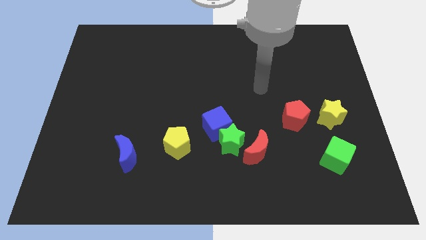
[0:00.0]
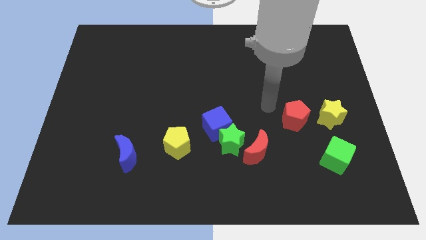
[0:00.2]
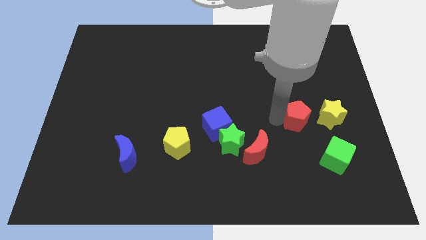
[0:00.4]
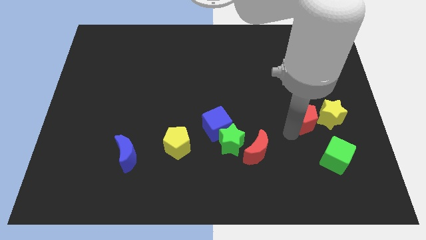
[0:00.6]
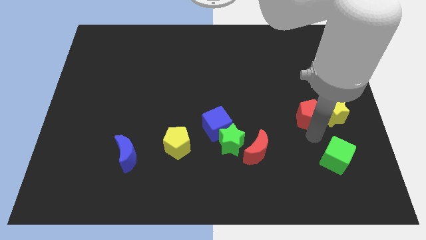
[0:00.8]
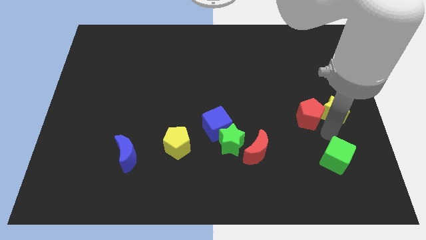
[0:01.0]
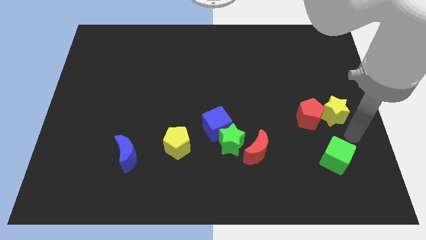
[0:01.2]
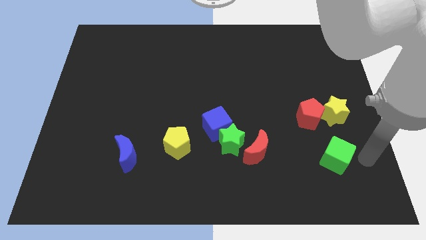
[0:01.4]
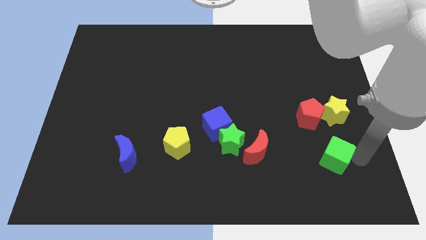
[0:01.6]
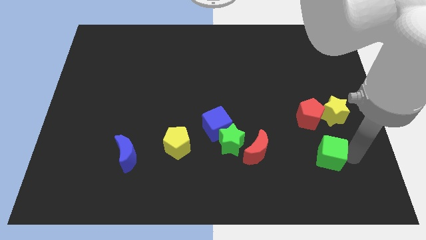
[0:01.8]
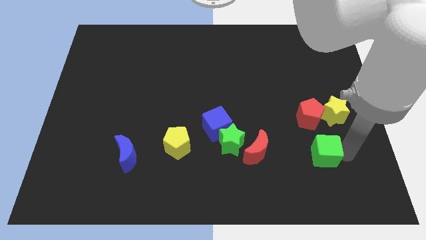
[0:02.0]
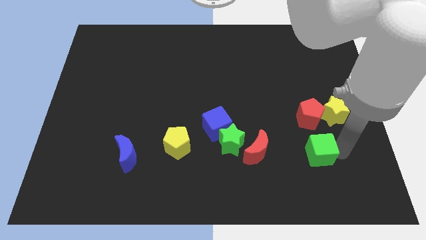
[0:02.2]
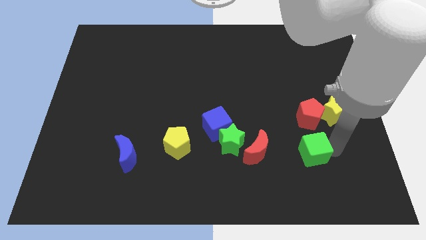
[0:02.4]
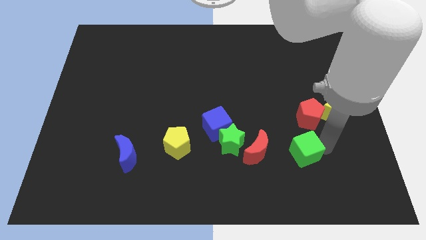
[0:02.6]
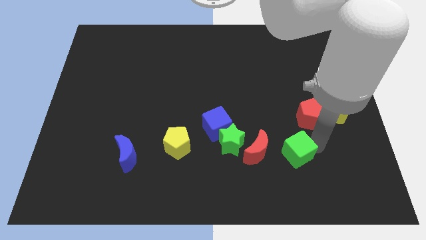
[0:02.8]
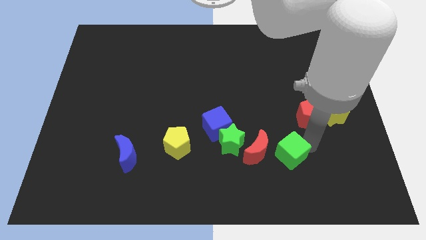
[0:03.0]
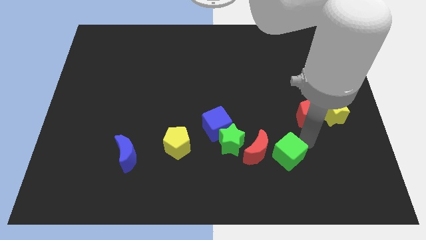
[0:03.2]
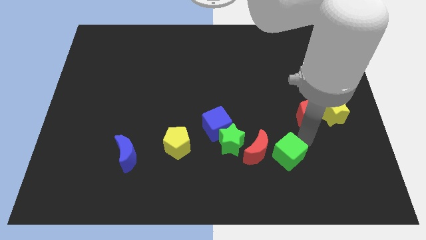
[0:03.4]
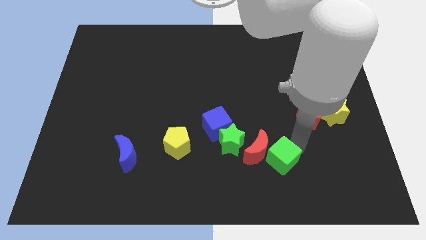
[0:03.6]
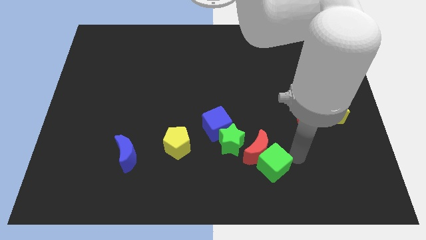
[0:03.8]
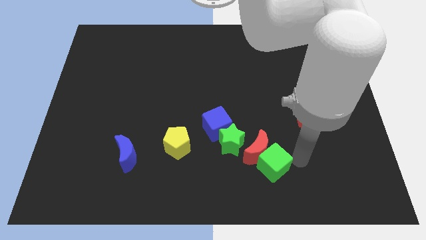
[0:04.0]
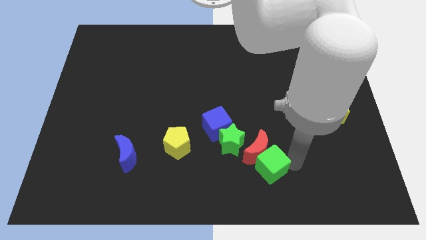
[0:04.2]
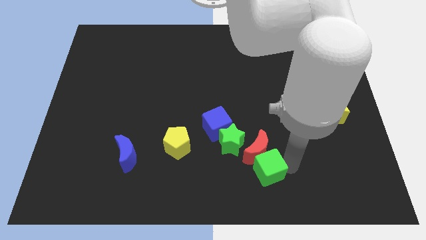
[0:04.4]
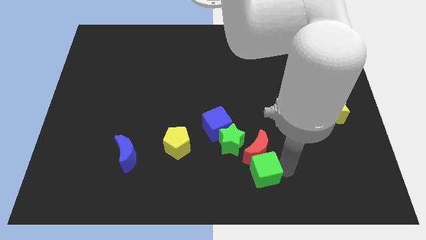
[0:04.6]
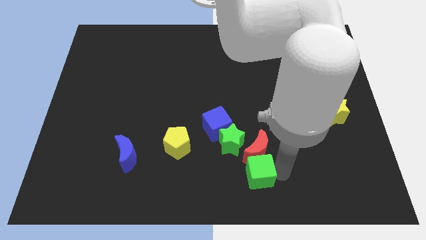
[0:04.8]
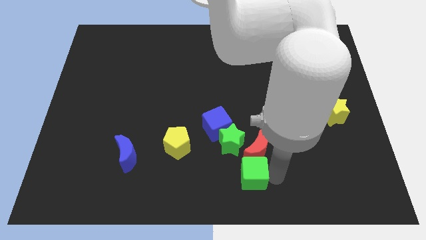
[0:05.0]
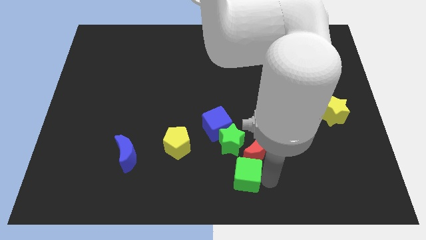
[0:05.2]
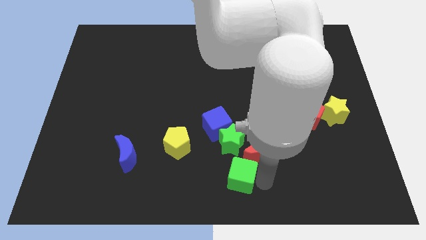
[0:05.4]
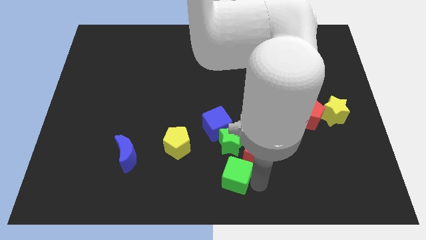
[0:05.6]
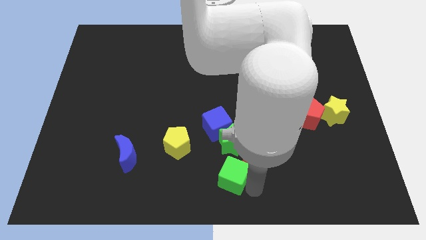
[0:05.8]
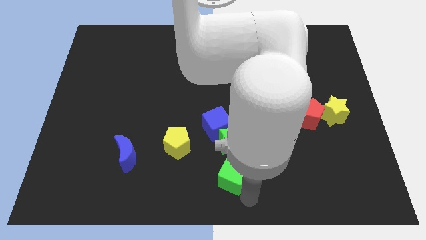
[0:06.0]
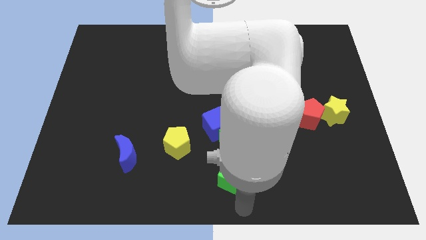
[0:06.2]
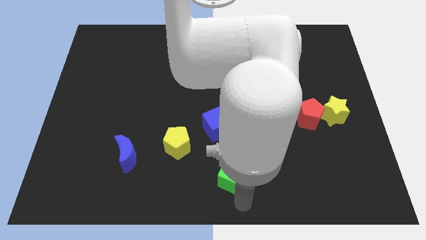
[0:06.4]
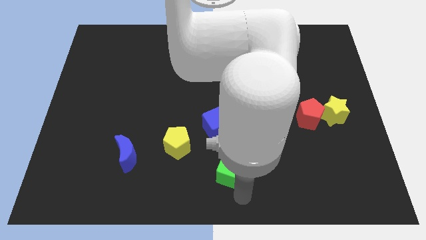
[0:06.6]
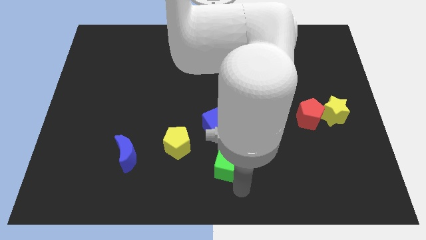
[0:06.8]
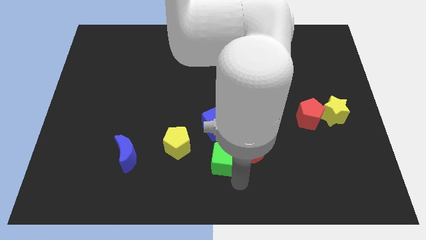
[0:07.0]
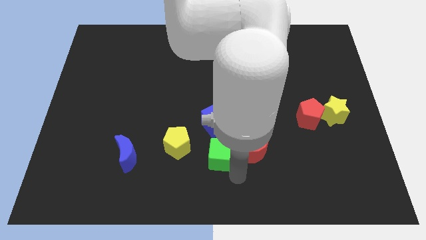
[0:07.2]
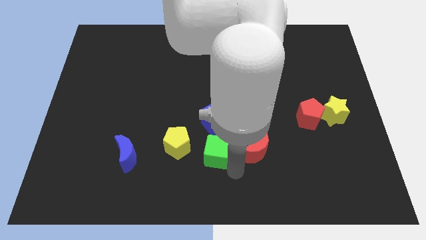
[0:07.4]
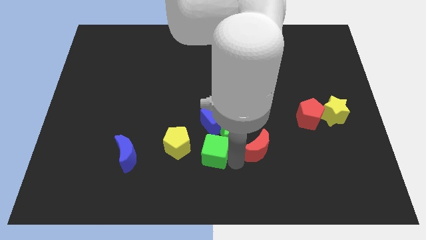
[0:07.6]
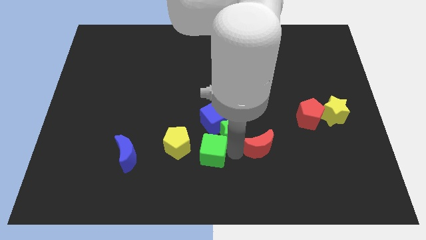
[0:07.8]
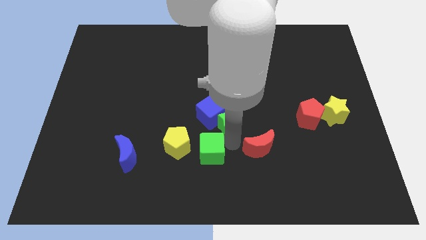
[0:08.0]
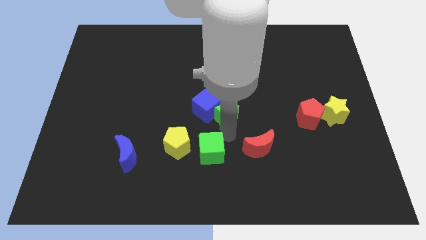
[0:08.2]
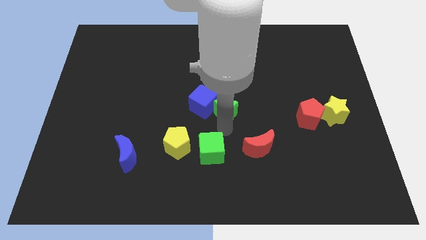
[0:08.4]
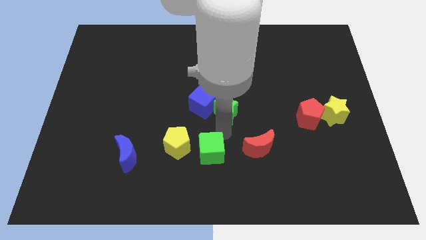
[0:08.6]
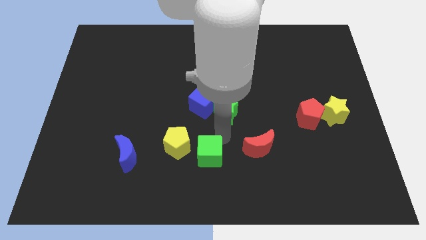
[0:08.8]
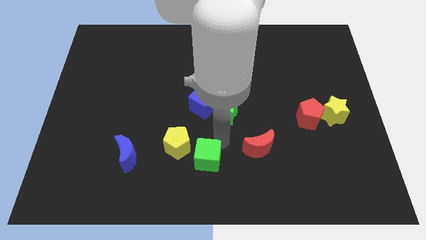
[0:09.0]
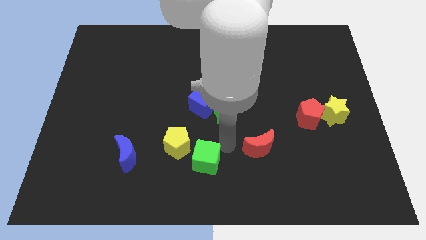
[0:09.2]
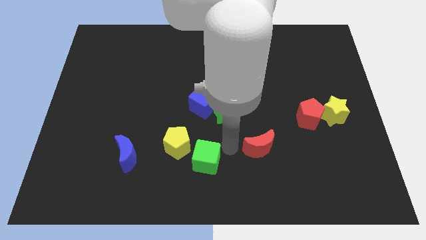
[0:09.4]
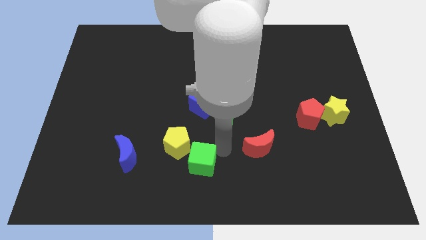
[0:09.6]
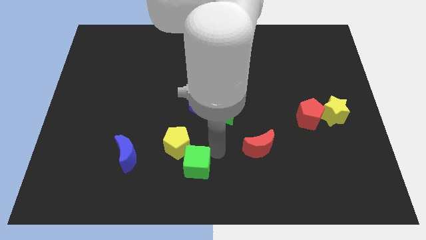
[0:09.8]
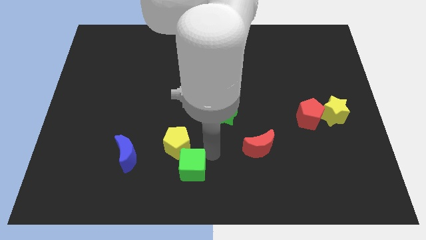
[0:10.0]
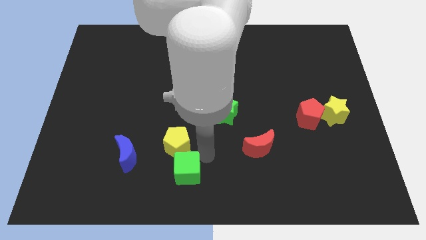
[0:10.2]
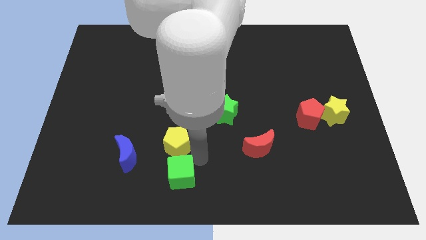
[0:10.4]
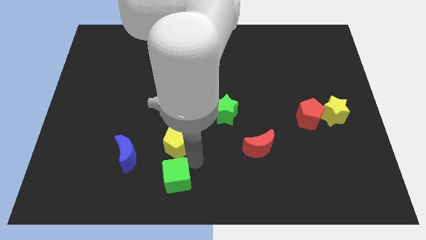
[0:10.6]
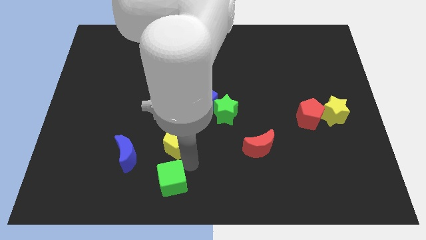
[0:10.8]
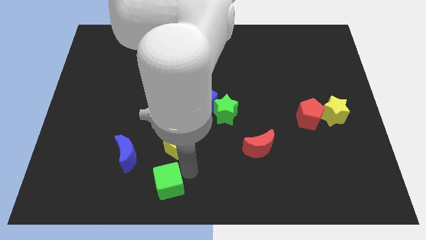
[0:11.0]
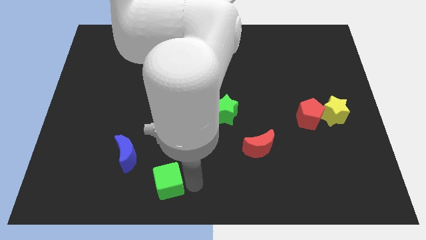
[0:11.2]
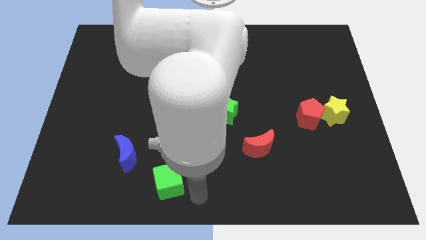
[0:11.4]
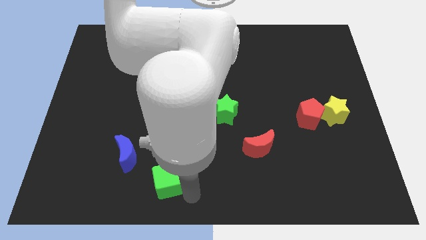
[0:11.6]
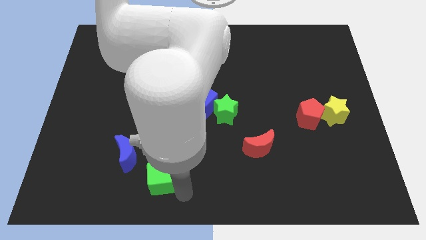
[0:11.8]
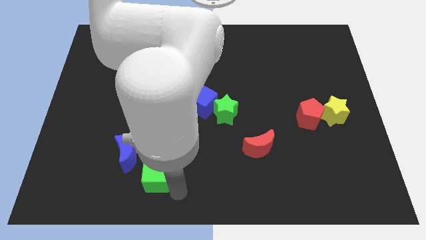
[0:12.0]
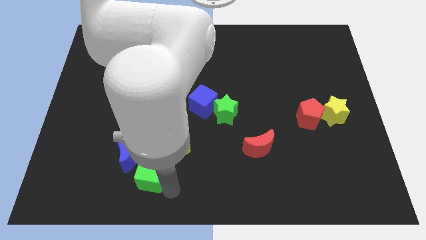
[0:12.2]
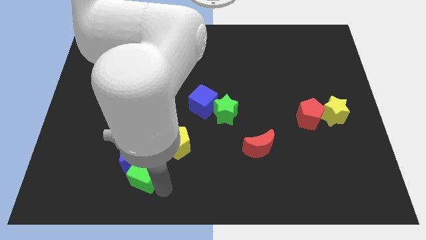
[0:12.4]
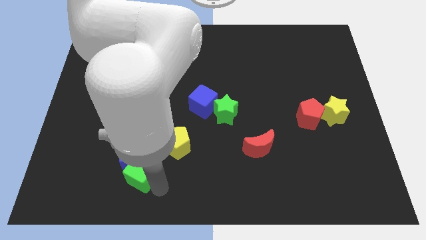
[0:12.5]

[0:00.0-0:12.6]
slide the green cube towards the blue moon

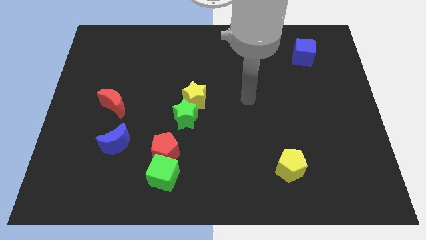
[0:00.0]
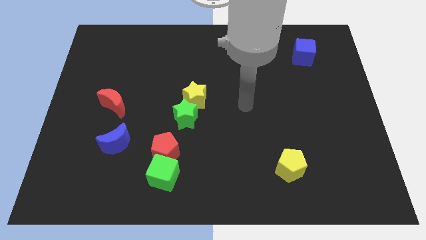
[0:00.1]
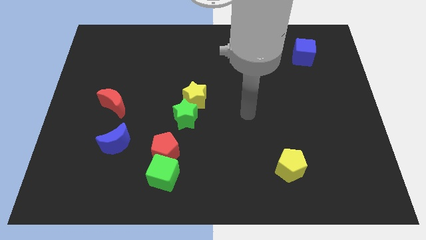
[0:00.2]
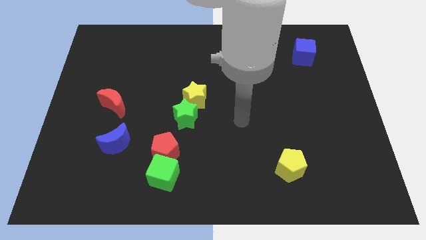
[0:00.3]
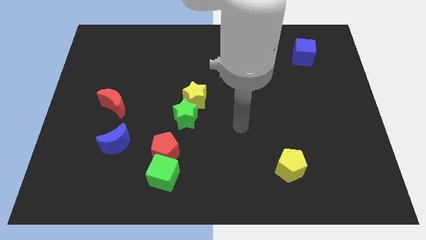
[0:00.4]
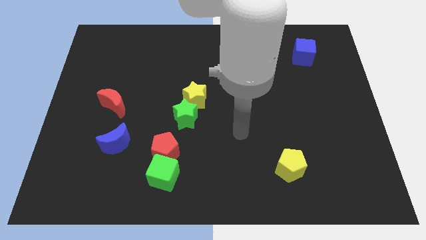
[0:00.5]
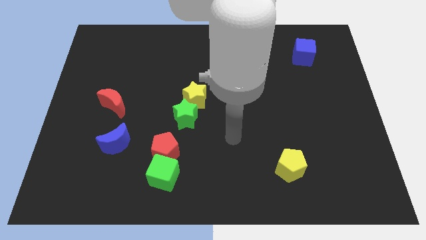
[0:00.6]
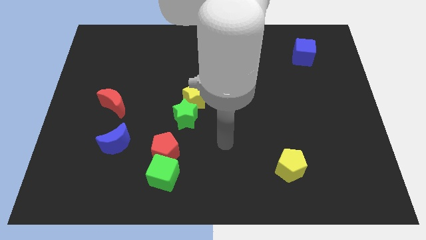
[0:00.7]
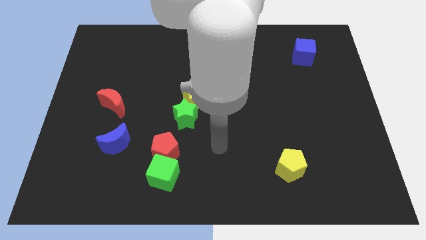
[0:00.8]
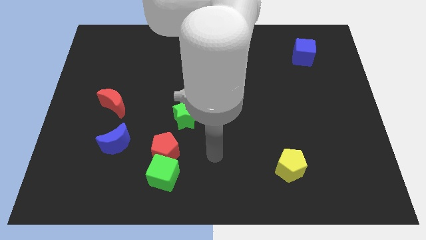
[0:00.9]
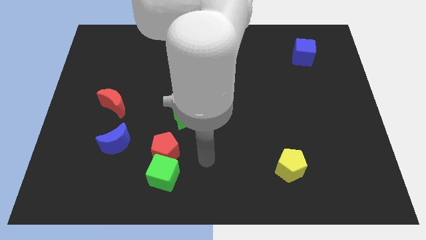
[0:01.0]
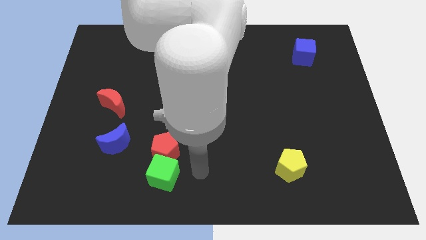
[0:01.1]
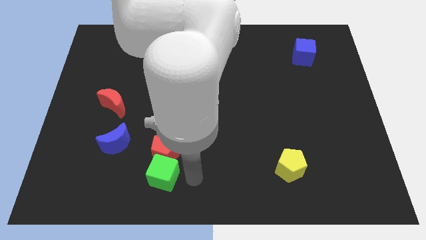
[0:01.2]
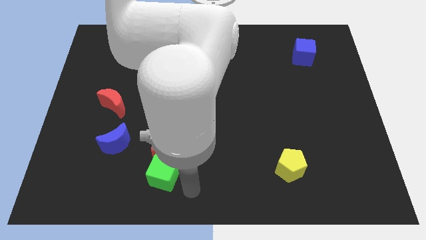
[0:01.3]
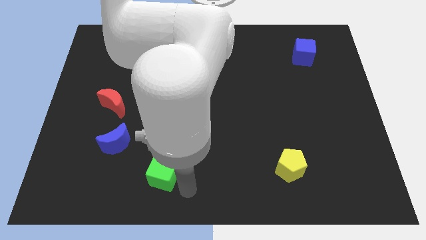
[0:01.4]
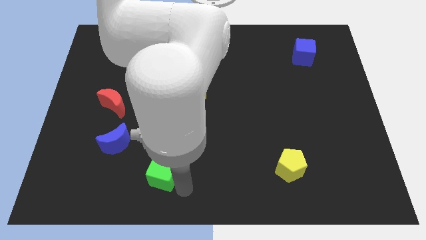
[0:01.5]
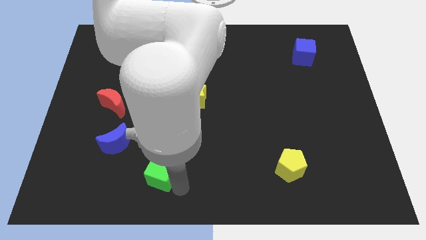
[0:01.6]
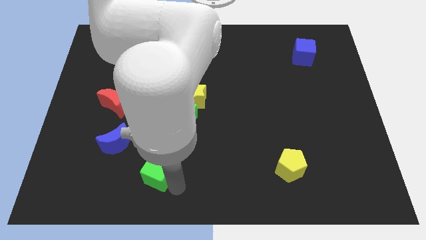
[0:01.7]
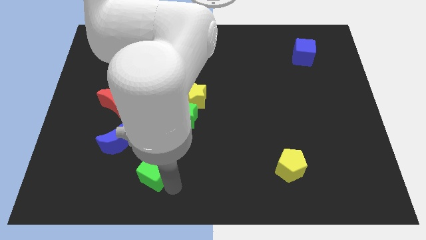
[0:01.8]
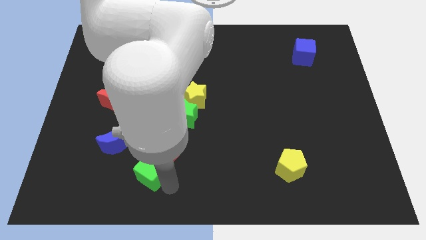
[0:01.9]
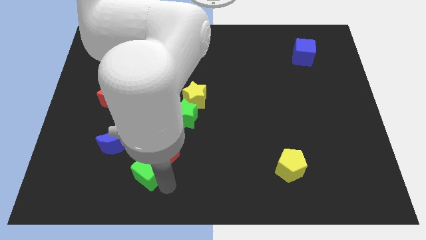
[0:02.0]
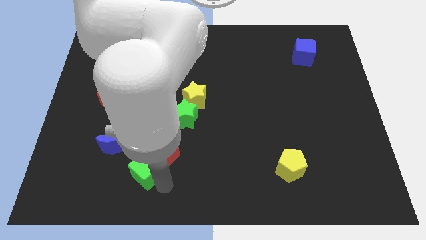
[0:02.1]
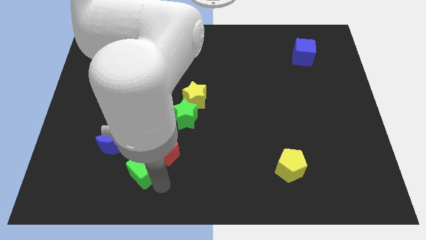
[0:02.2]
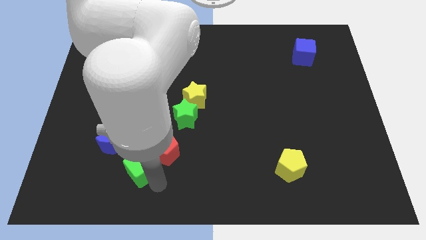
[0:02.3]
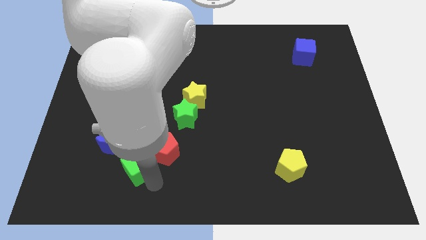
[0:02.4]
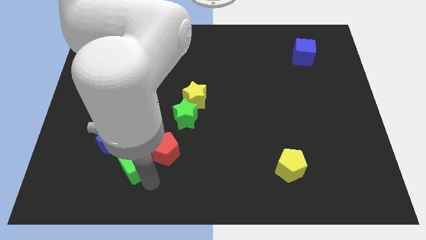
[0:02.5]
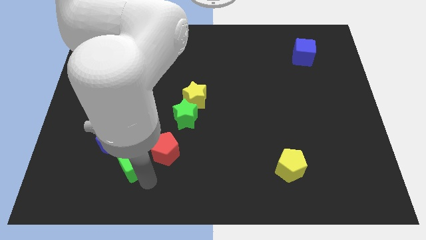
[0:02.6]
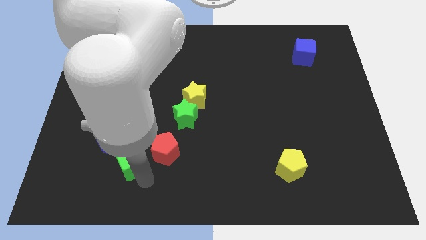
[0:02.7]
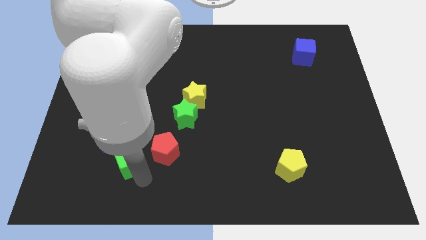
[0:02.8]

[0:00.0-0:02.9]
put the green cube next to the blue moon
